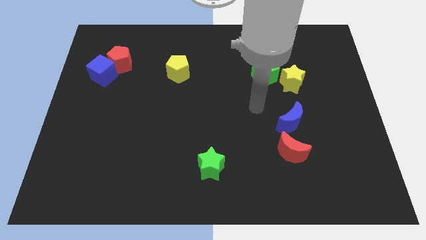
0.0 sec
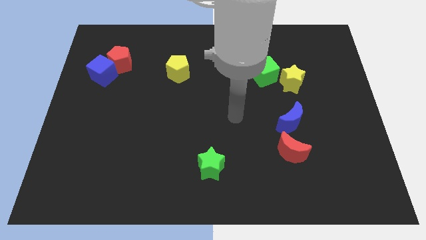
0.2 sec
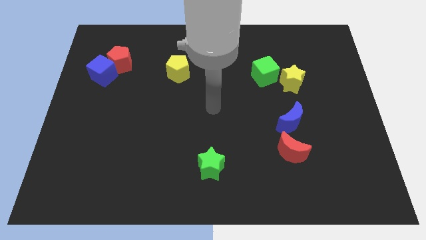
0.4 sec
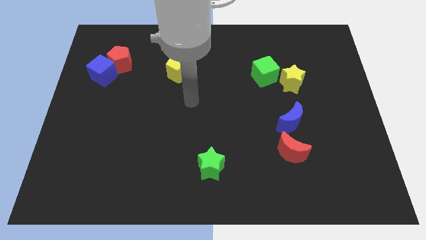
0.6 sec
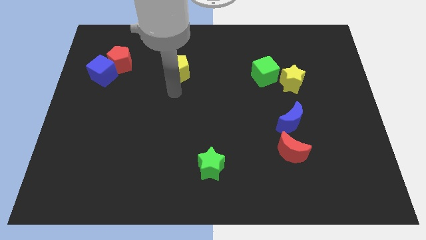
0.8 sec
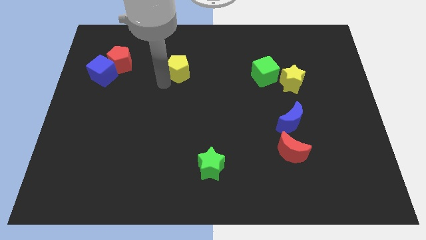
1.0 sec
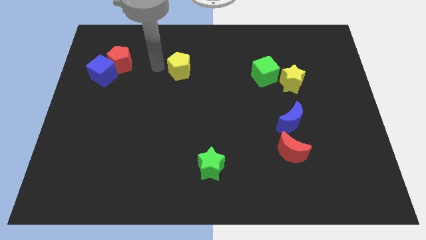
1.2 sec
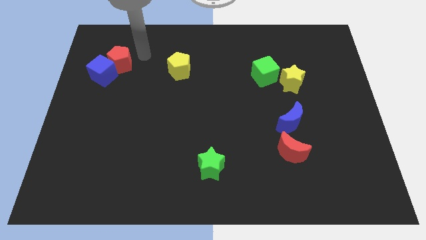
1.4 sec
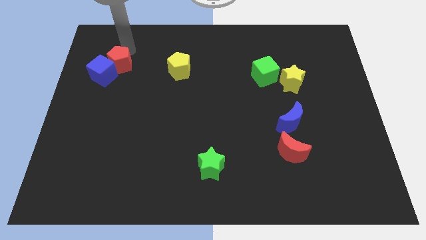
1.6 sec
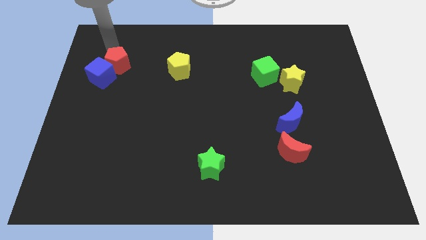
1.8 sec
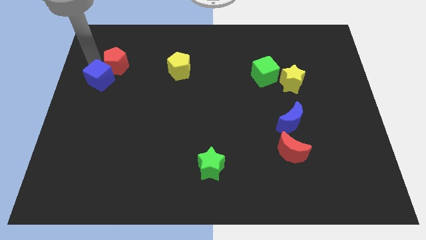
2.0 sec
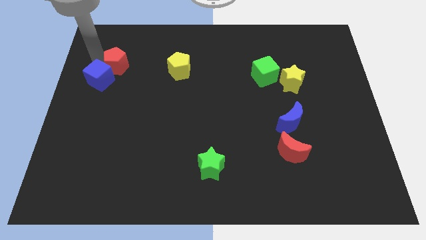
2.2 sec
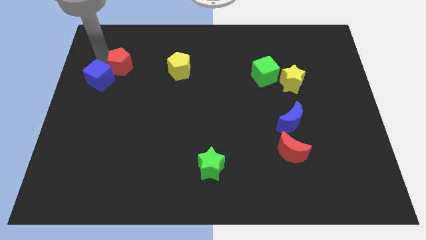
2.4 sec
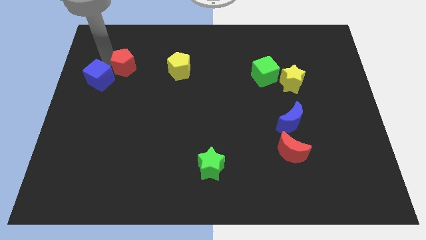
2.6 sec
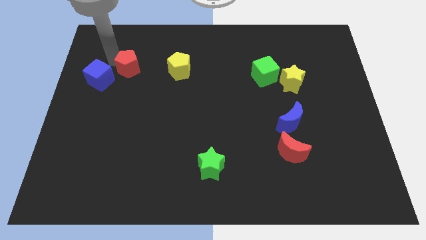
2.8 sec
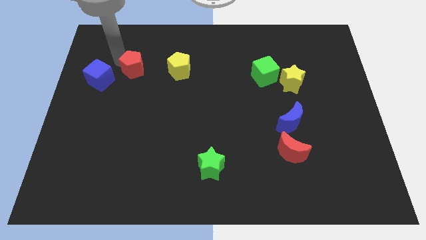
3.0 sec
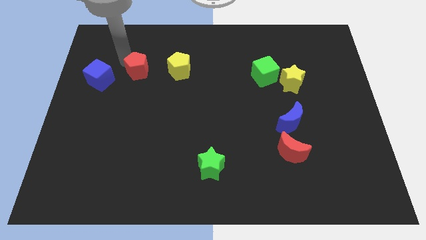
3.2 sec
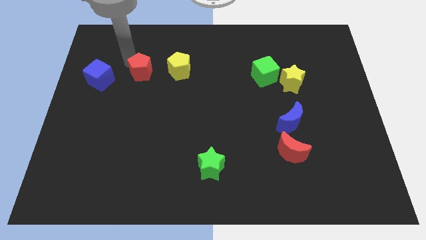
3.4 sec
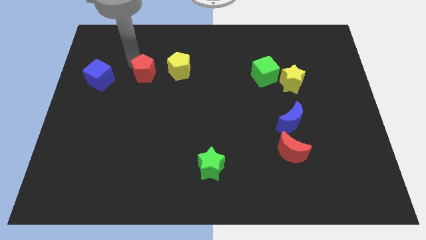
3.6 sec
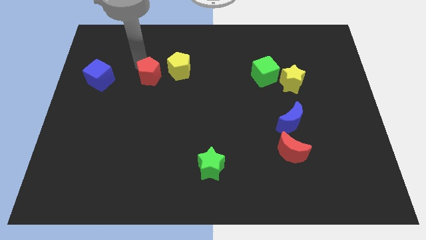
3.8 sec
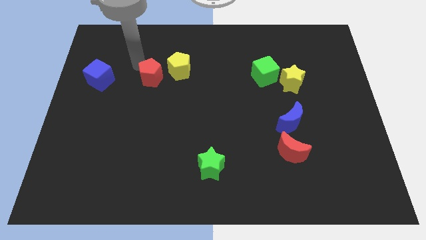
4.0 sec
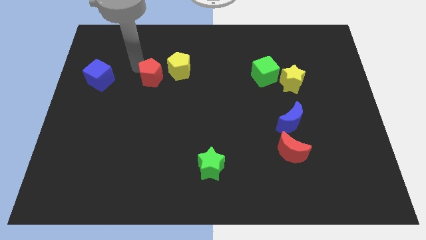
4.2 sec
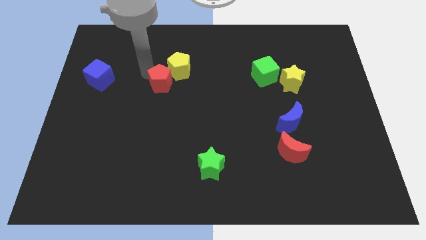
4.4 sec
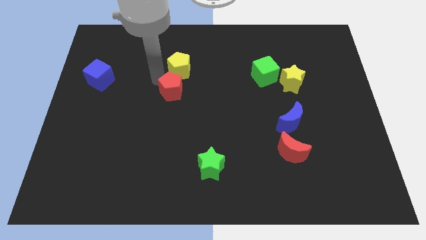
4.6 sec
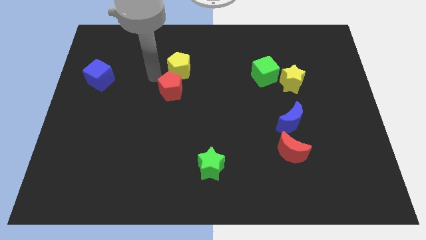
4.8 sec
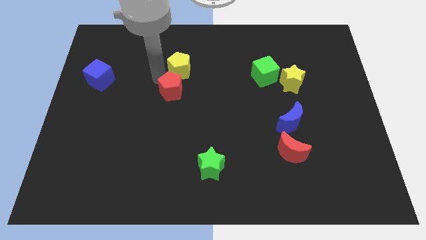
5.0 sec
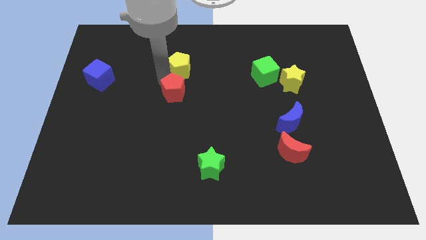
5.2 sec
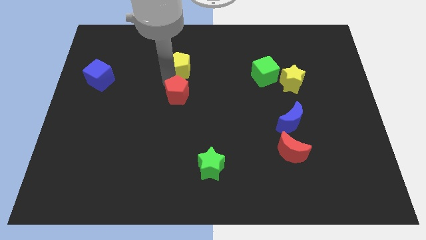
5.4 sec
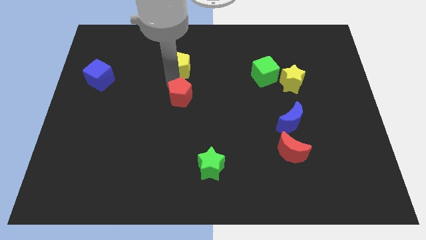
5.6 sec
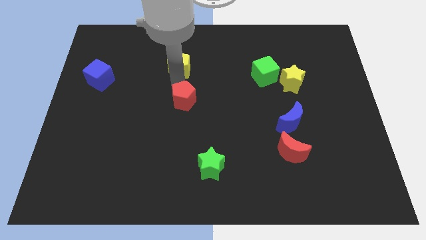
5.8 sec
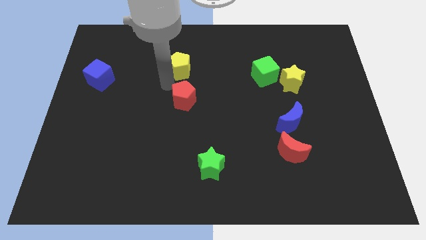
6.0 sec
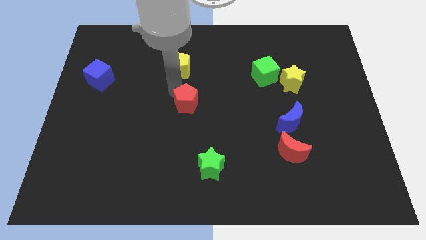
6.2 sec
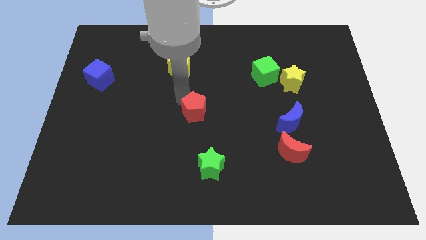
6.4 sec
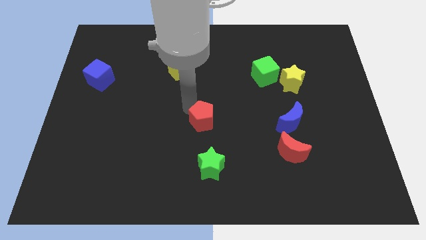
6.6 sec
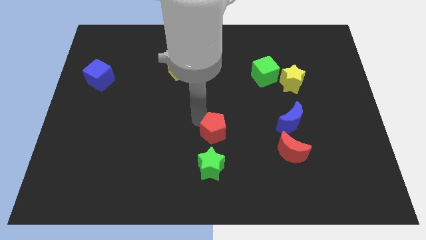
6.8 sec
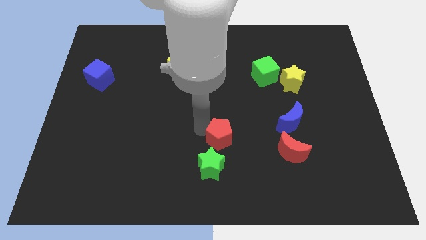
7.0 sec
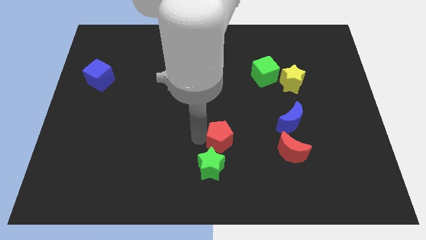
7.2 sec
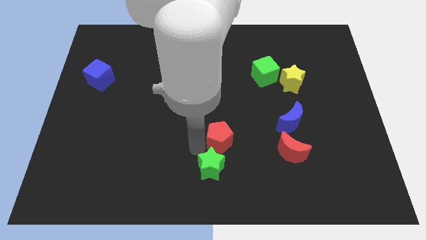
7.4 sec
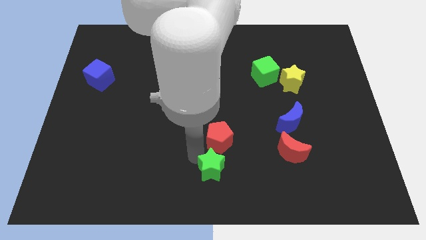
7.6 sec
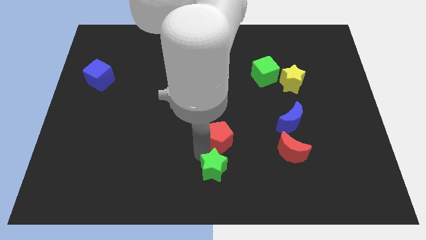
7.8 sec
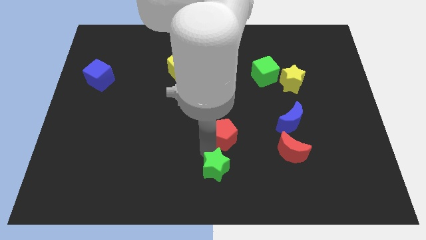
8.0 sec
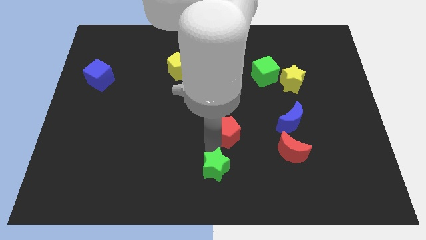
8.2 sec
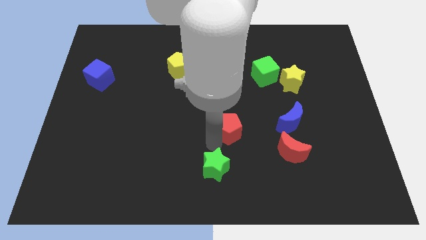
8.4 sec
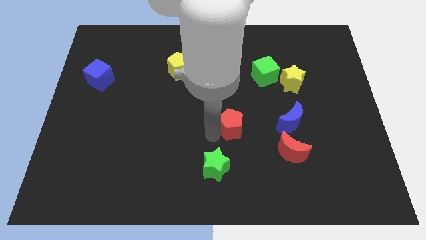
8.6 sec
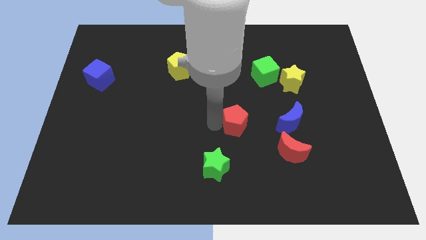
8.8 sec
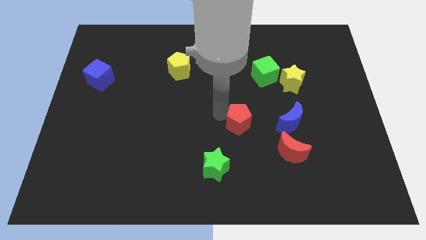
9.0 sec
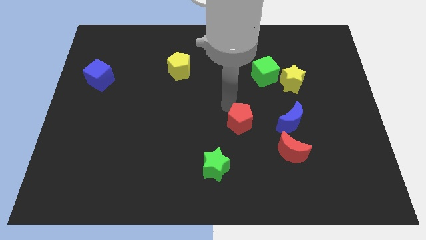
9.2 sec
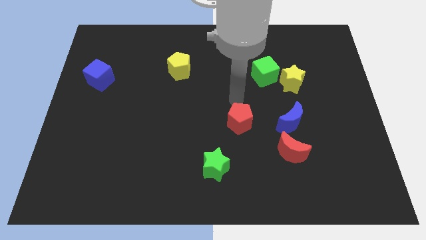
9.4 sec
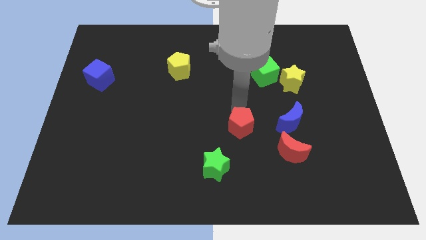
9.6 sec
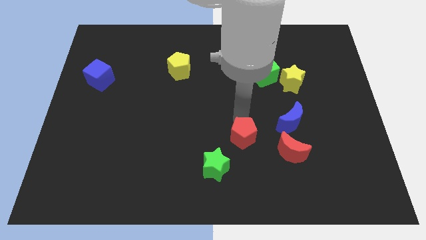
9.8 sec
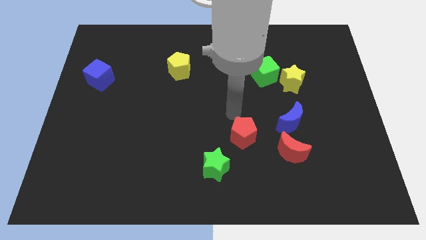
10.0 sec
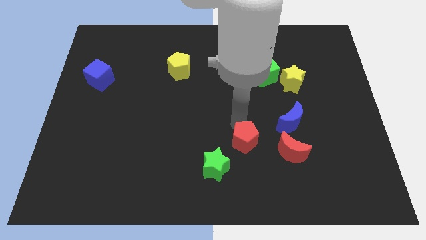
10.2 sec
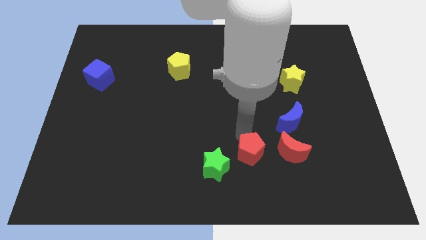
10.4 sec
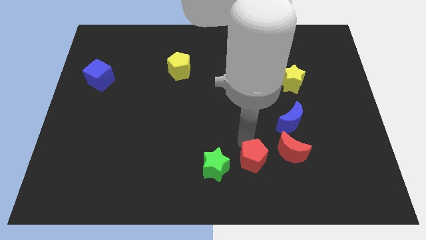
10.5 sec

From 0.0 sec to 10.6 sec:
push the red pentagon to the bottom left side of the red moon

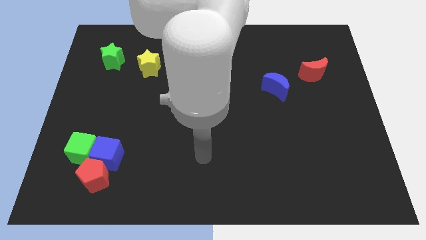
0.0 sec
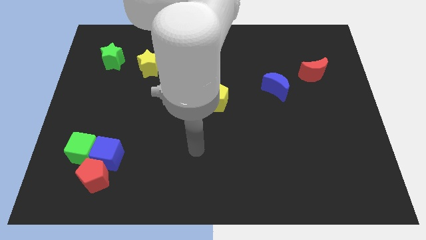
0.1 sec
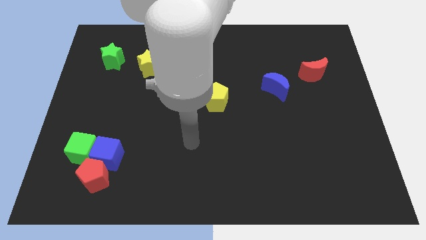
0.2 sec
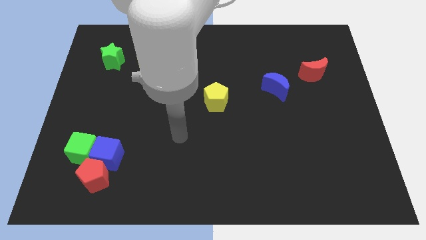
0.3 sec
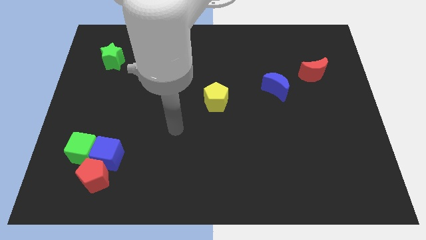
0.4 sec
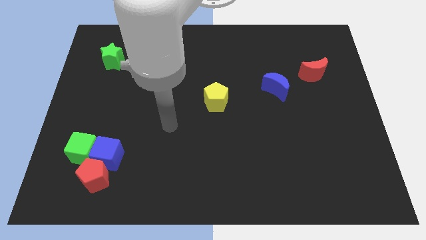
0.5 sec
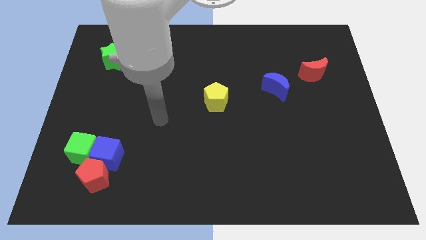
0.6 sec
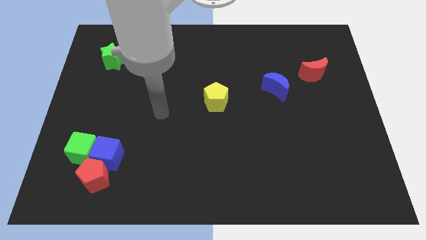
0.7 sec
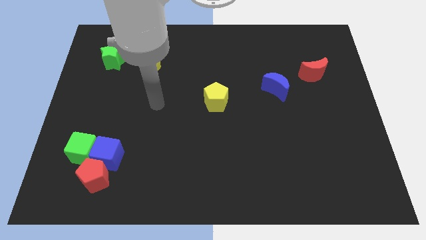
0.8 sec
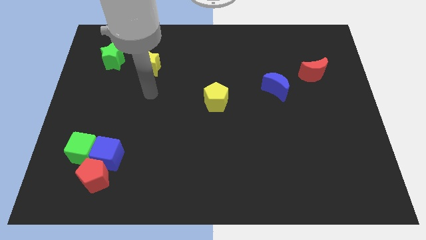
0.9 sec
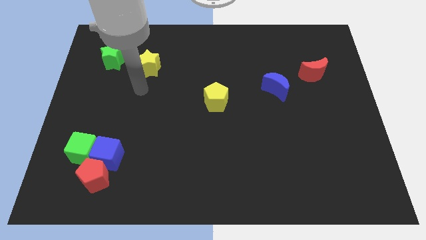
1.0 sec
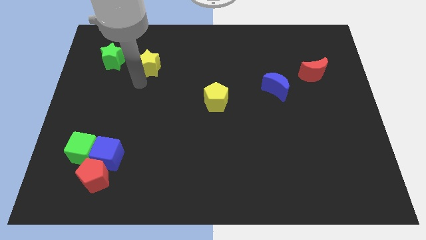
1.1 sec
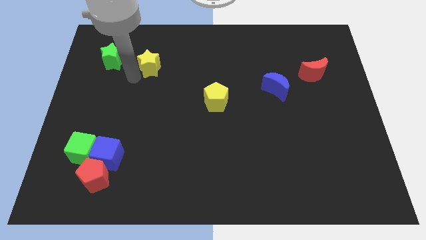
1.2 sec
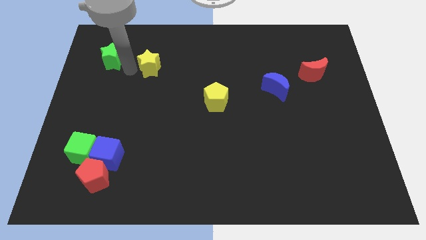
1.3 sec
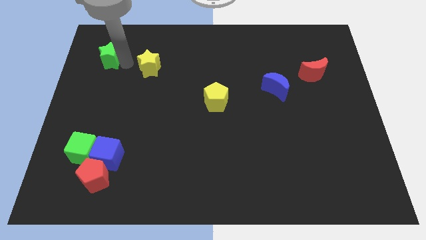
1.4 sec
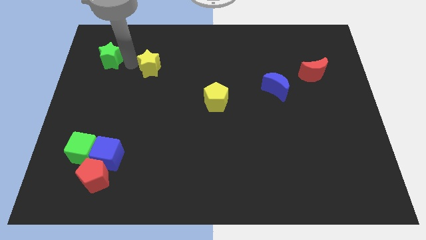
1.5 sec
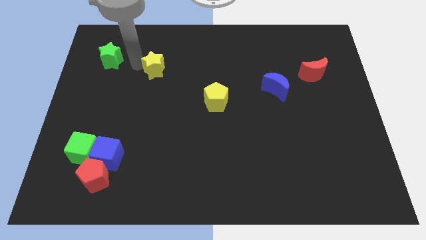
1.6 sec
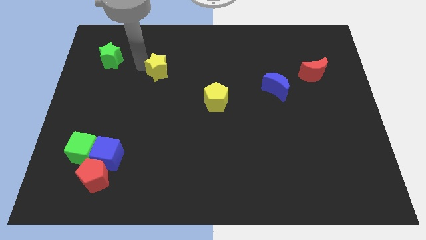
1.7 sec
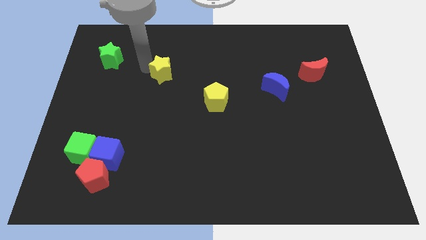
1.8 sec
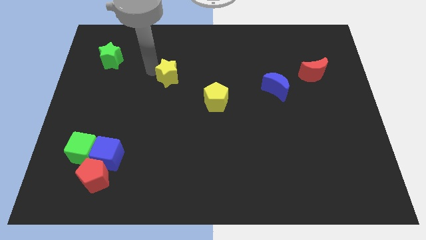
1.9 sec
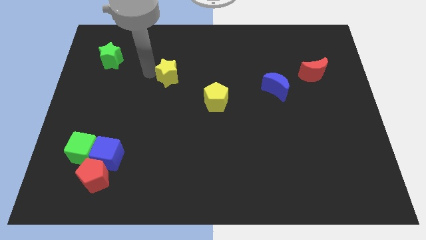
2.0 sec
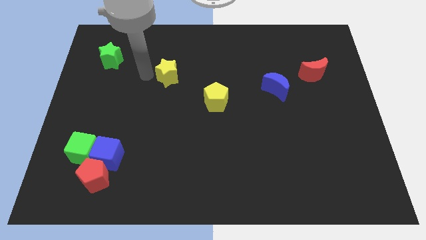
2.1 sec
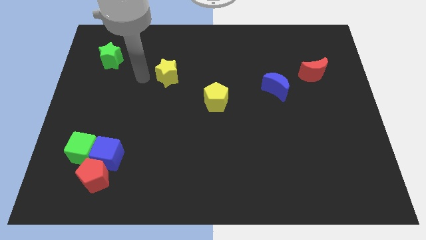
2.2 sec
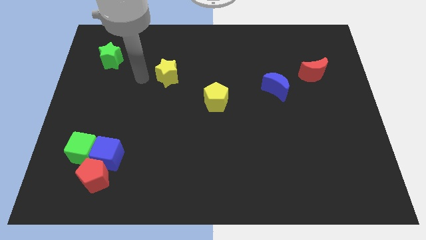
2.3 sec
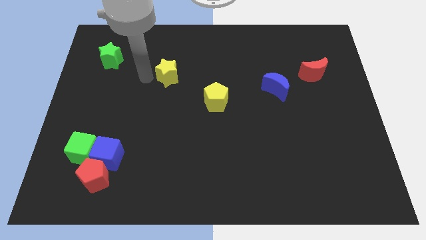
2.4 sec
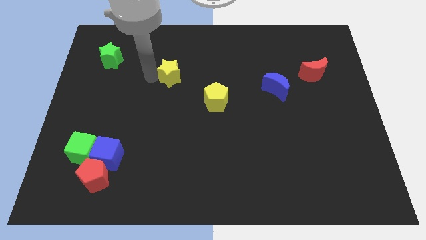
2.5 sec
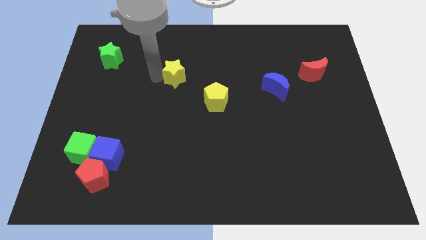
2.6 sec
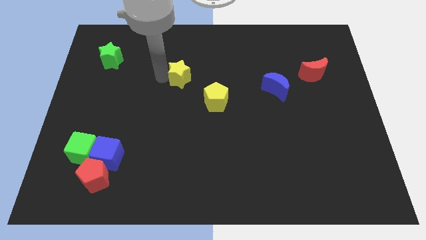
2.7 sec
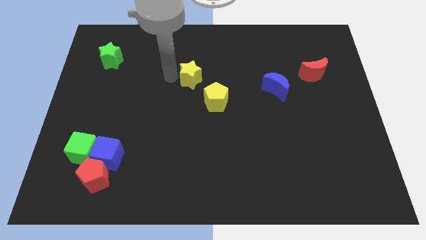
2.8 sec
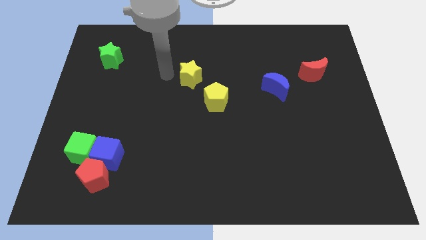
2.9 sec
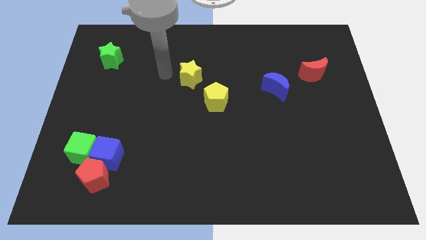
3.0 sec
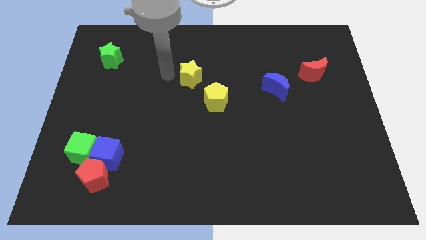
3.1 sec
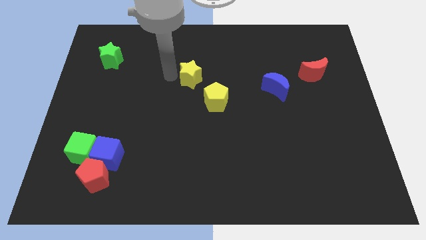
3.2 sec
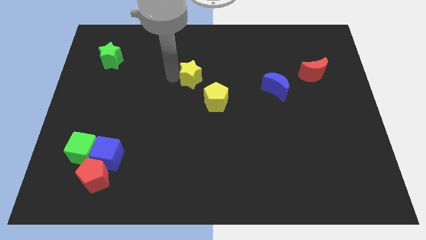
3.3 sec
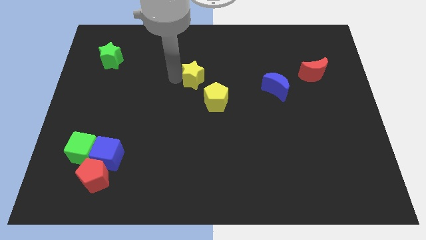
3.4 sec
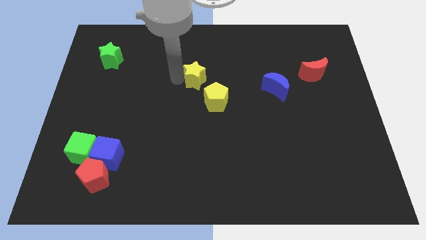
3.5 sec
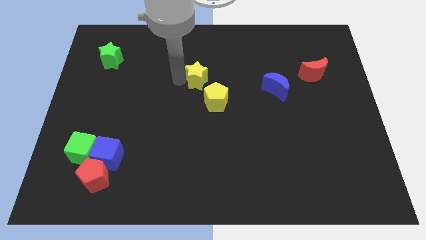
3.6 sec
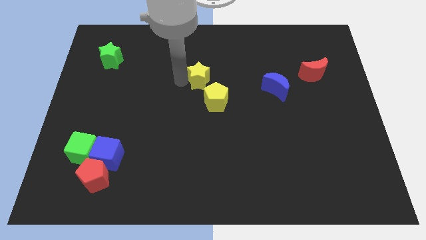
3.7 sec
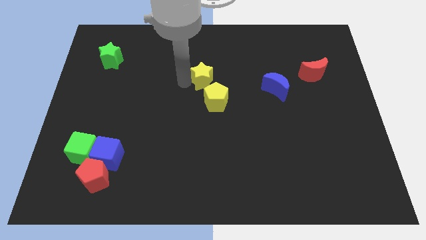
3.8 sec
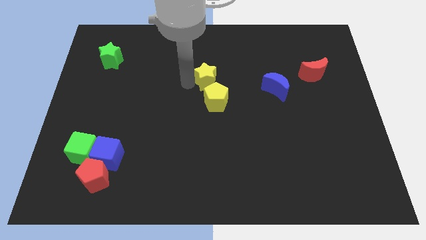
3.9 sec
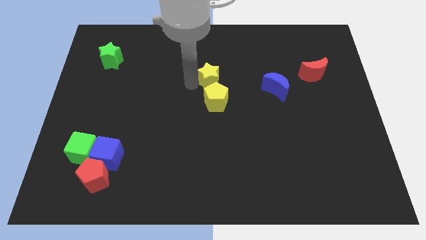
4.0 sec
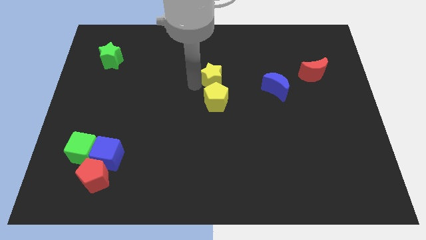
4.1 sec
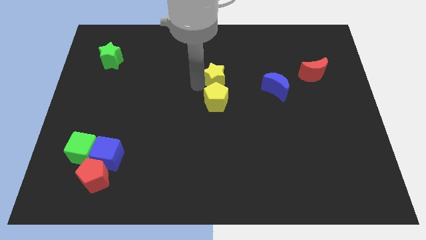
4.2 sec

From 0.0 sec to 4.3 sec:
move the yellow star to the top right of the yellow pentagon
